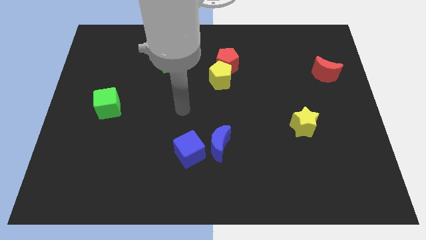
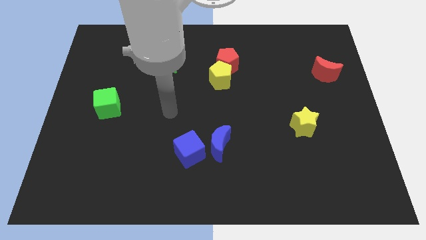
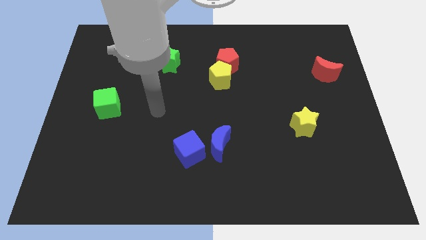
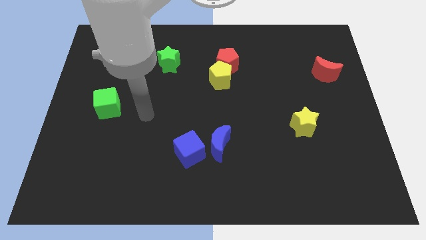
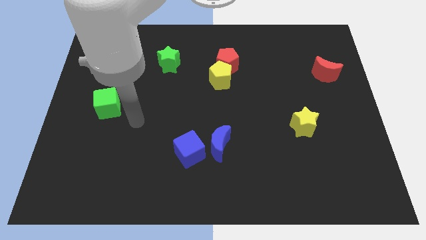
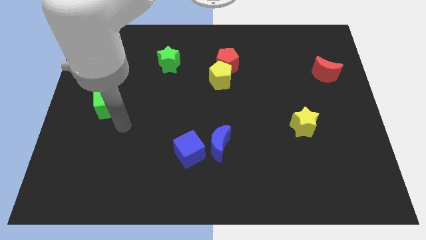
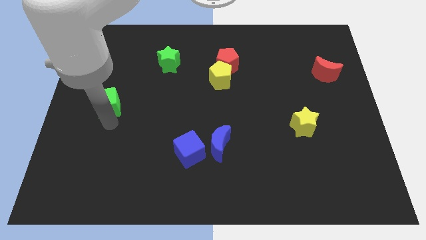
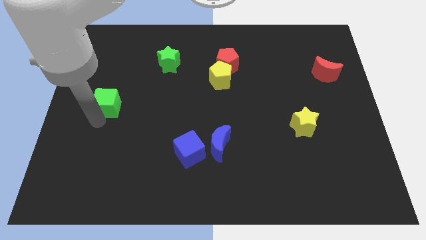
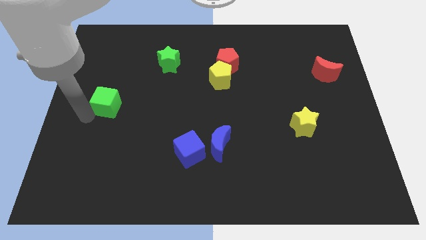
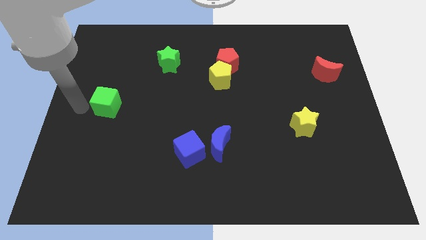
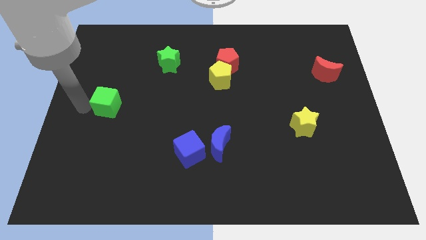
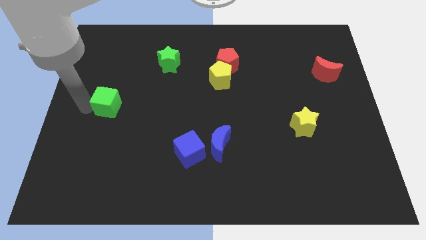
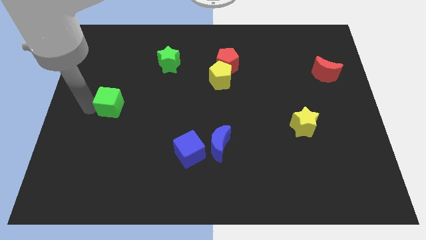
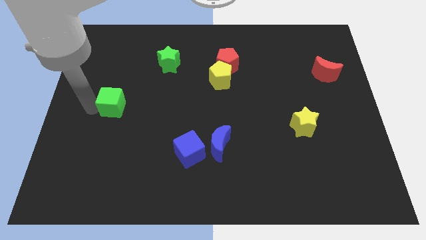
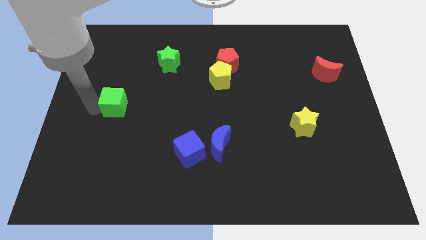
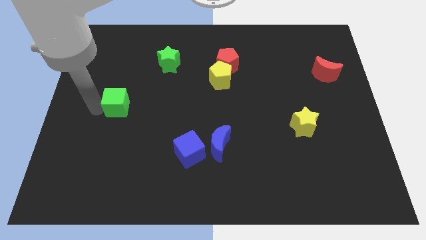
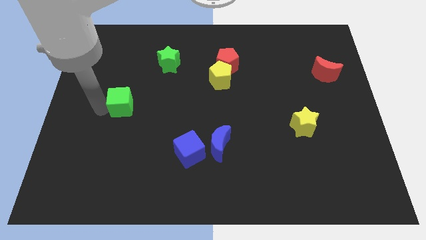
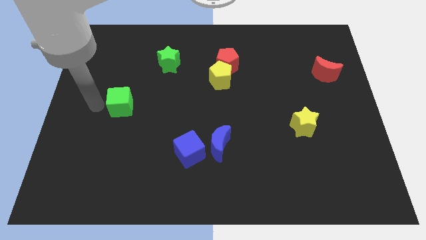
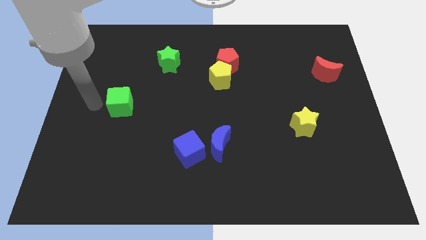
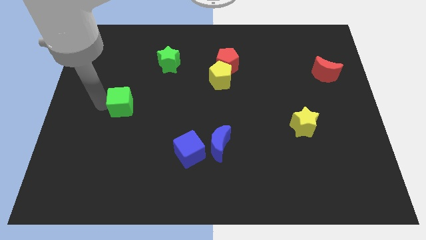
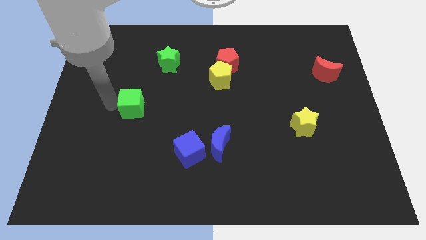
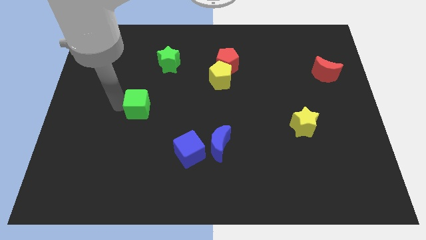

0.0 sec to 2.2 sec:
slightly move the green cube right

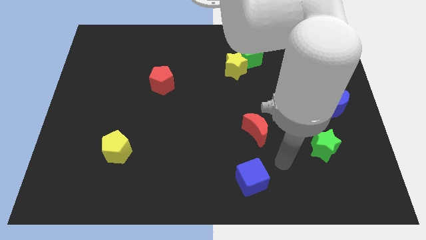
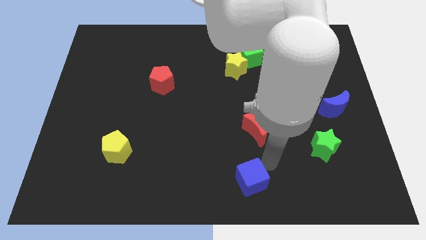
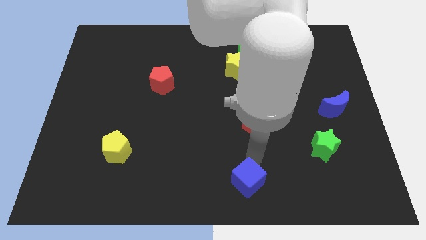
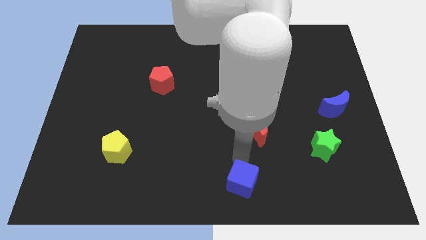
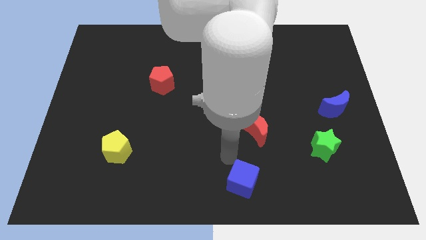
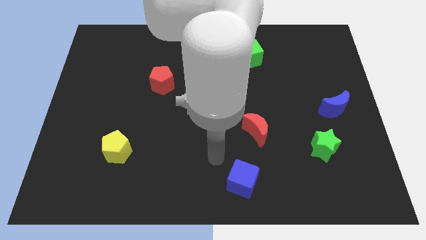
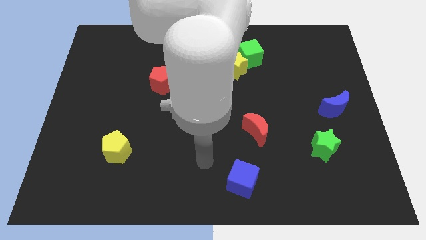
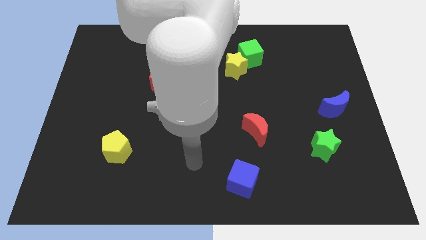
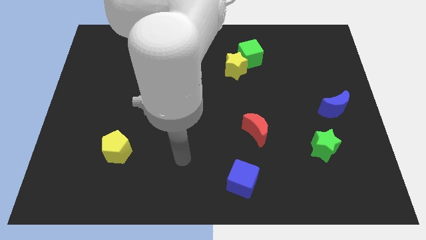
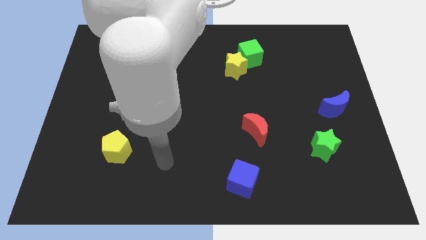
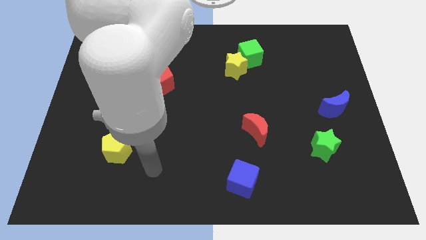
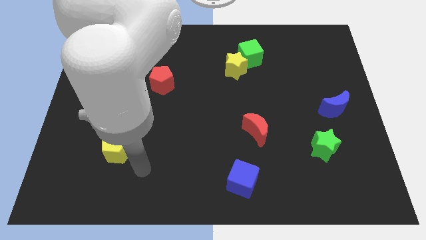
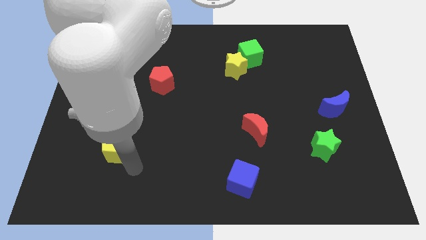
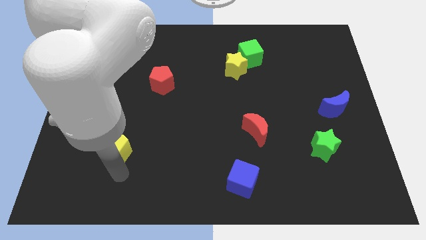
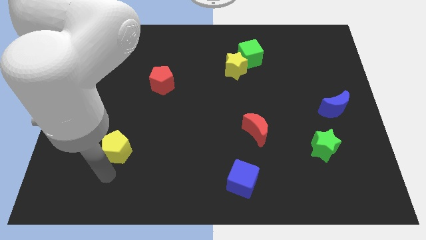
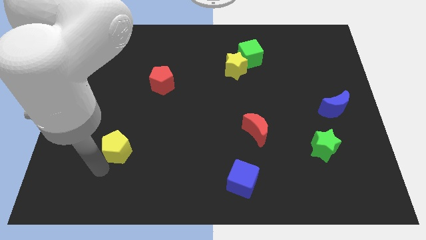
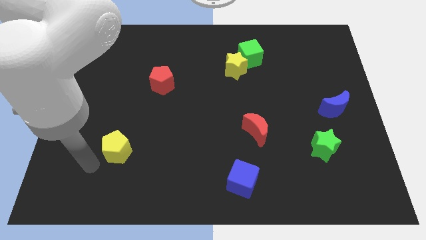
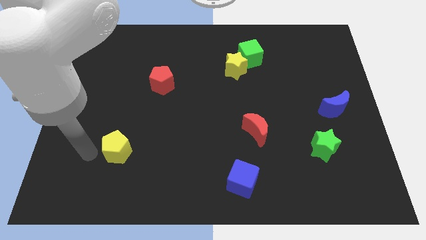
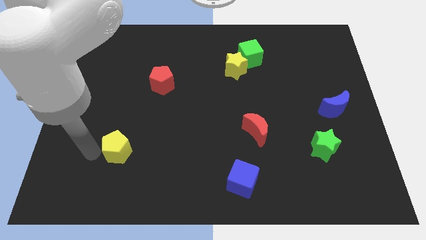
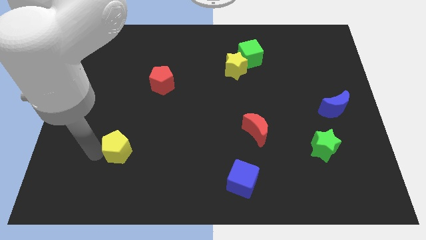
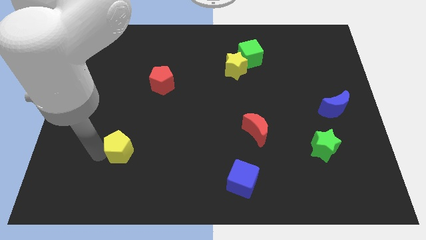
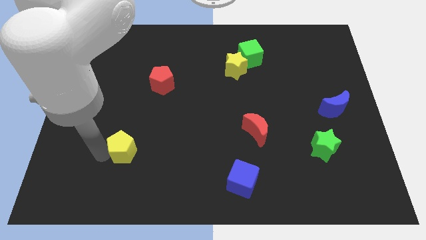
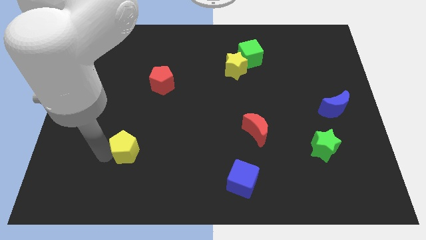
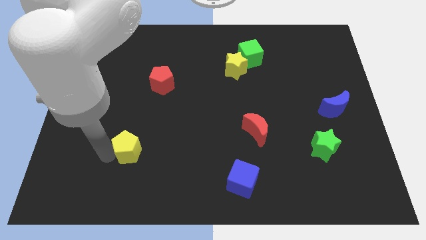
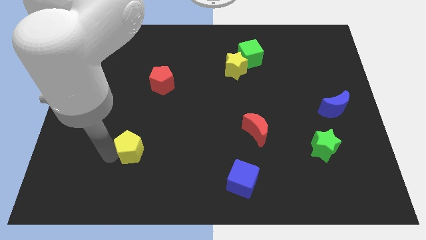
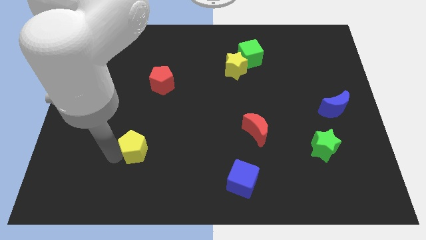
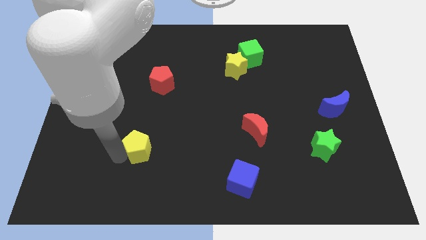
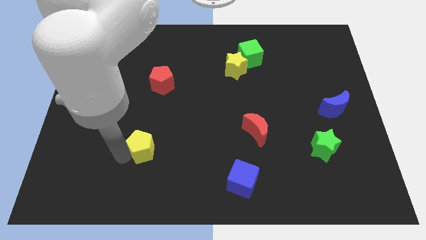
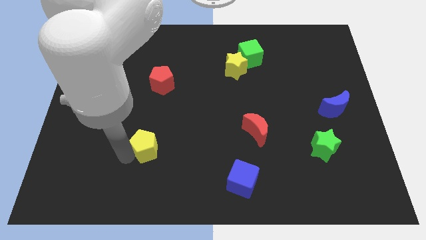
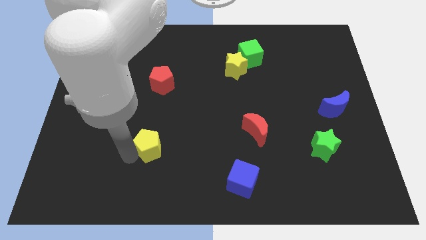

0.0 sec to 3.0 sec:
slightly push the yellow pentagon to the right

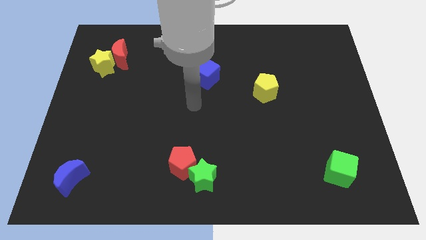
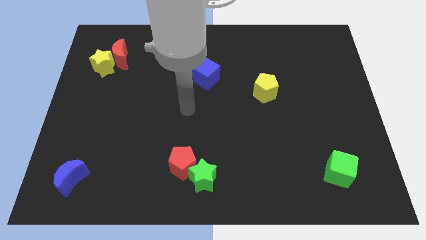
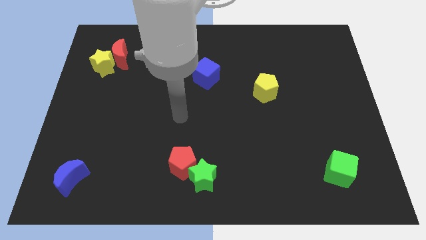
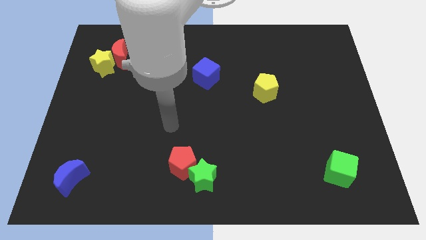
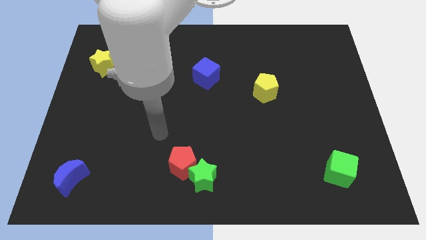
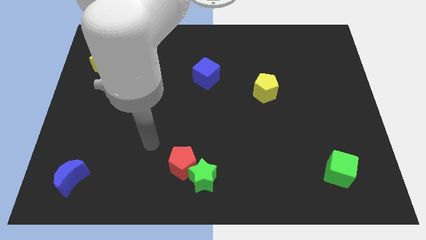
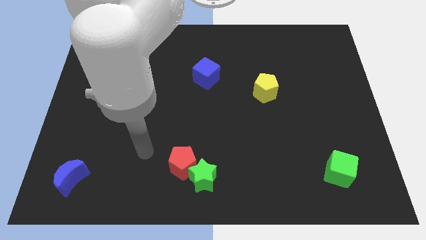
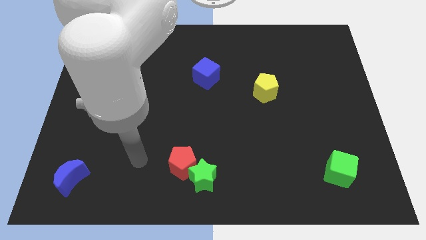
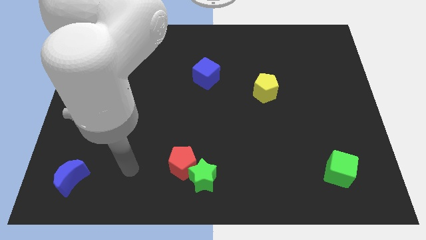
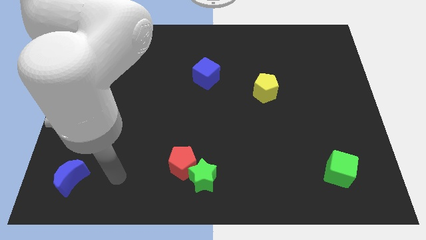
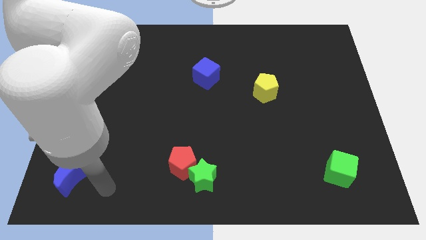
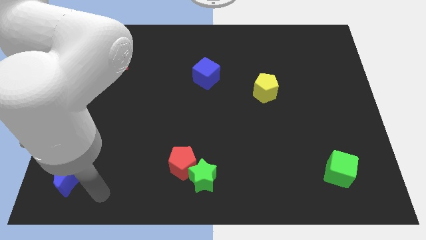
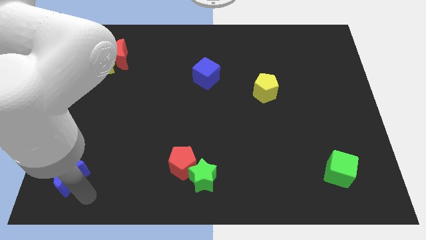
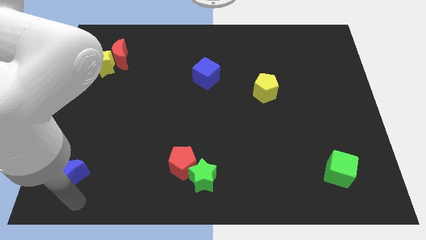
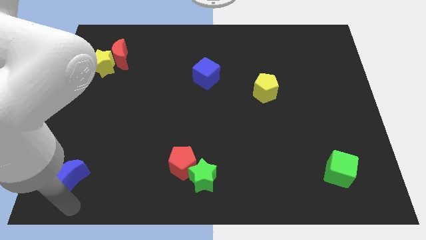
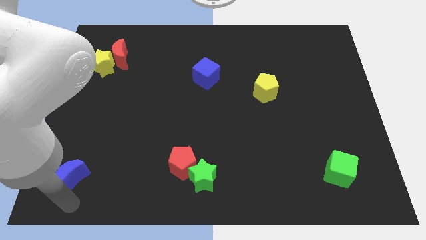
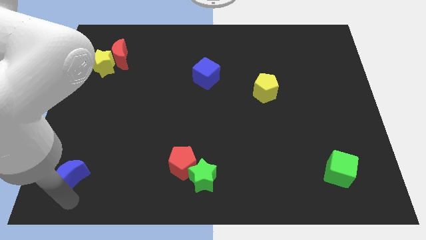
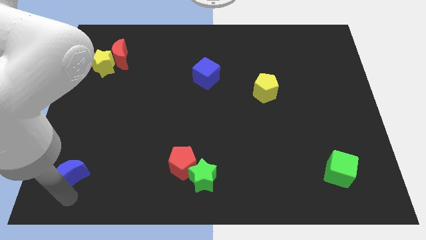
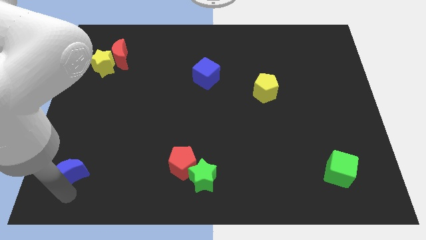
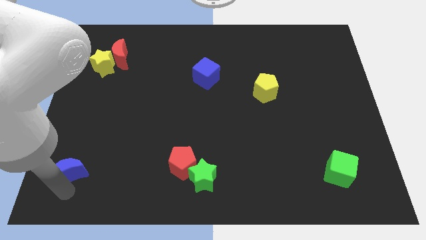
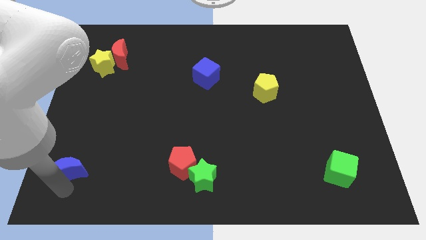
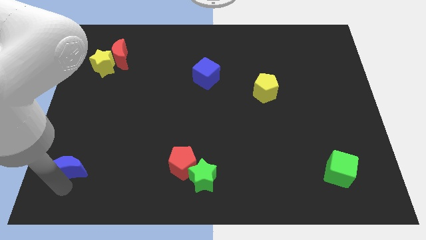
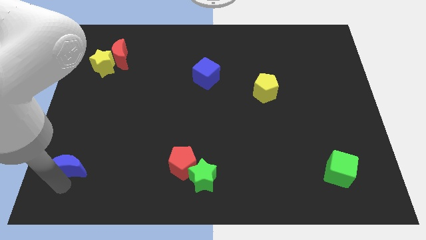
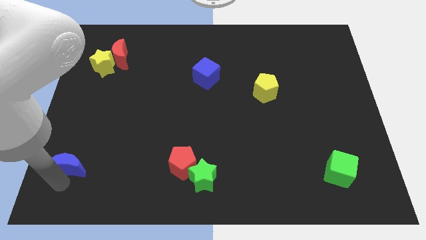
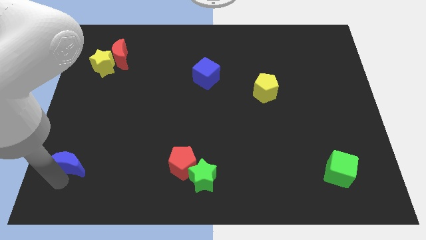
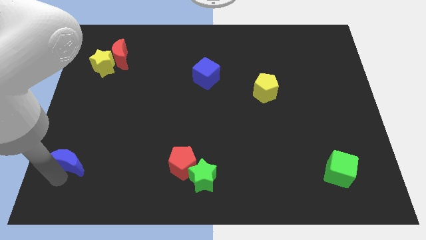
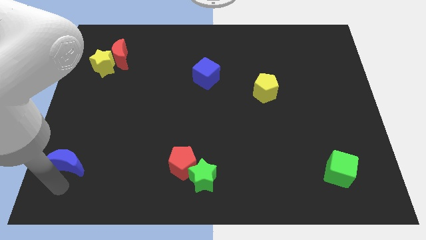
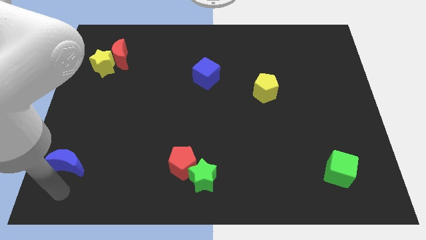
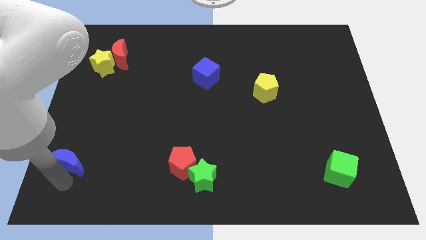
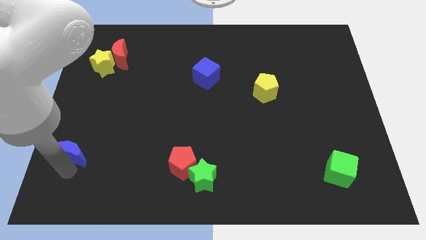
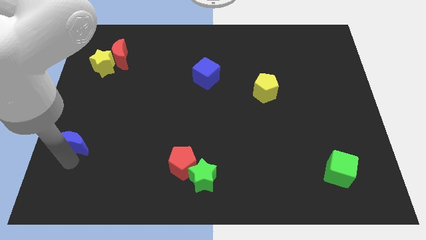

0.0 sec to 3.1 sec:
slide the blue moon upwards a bit
